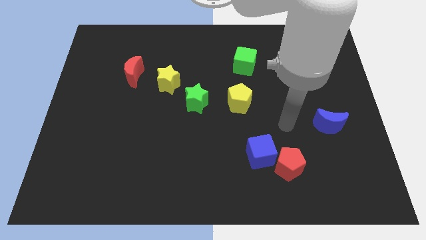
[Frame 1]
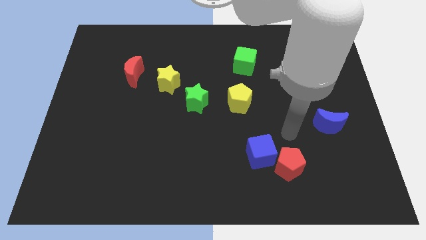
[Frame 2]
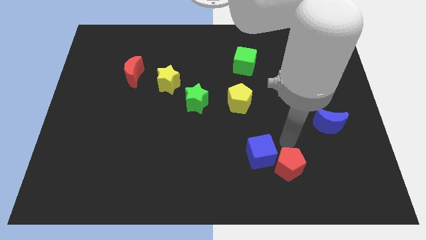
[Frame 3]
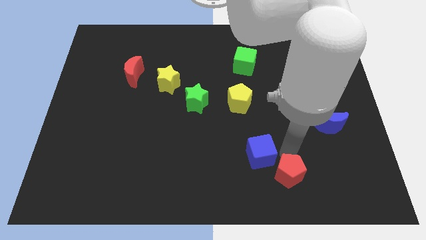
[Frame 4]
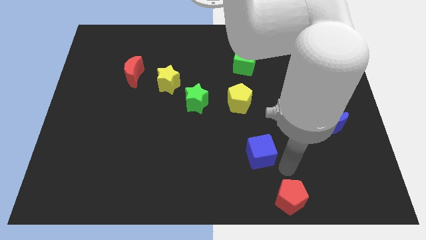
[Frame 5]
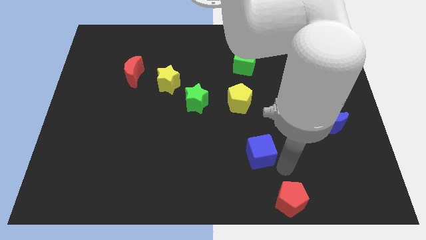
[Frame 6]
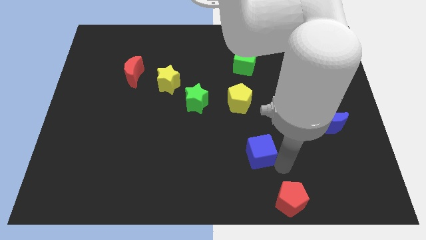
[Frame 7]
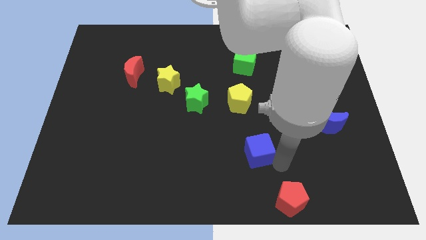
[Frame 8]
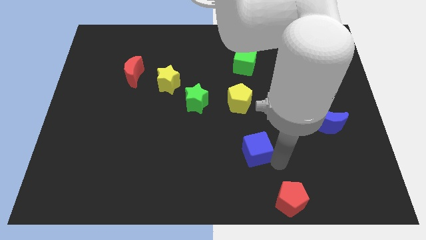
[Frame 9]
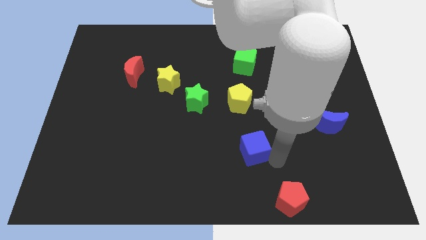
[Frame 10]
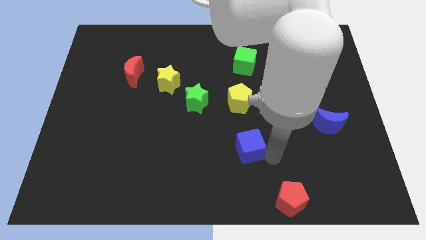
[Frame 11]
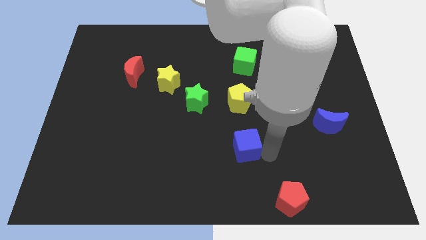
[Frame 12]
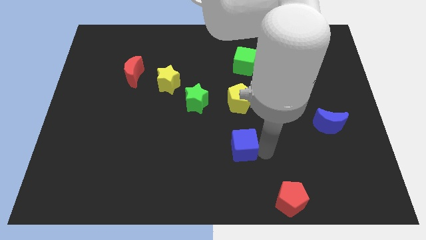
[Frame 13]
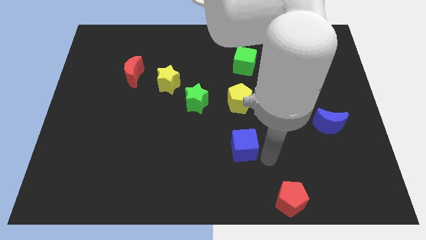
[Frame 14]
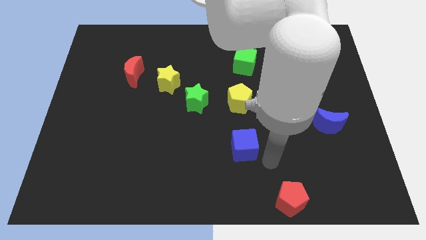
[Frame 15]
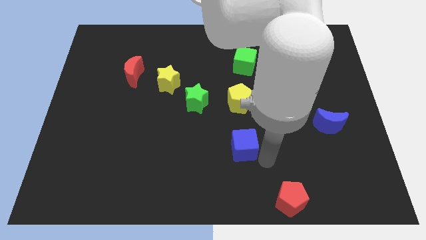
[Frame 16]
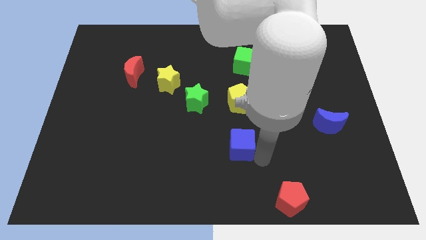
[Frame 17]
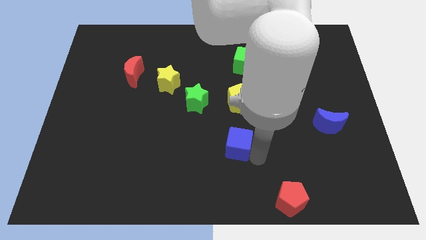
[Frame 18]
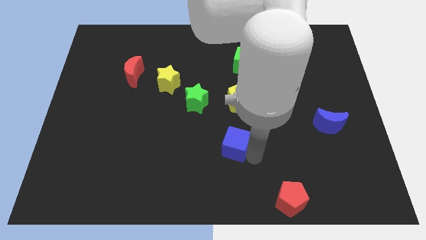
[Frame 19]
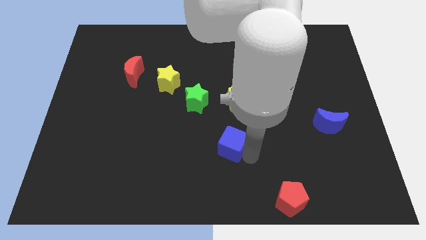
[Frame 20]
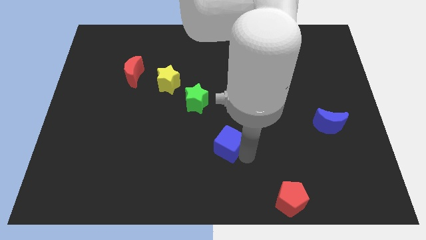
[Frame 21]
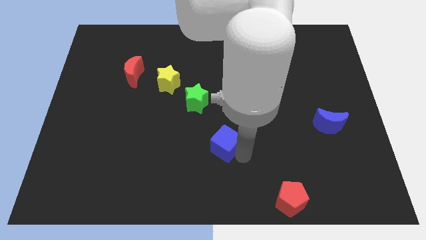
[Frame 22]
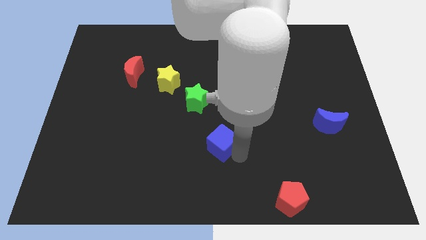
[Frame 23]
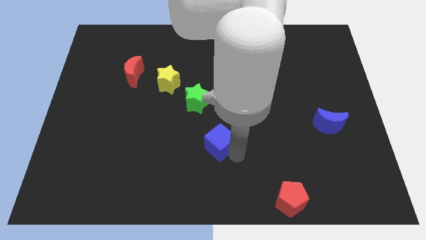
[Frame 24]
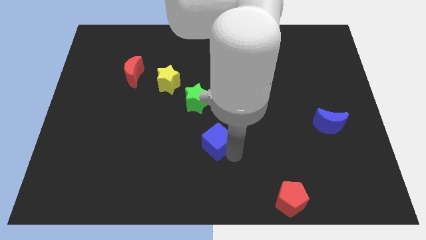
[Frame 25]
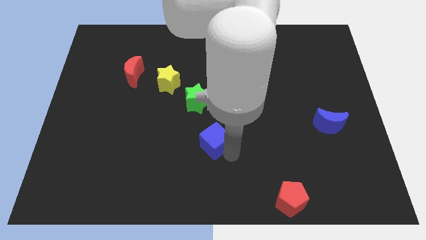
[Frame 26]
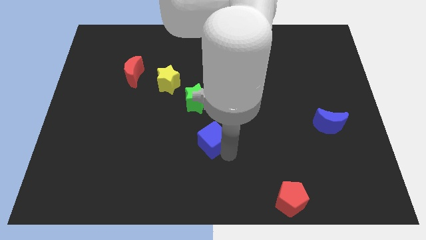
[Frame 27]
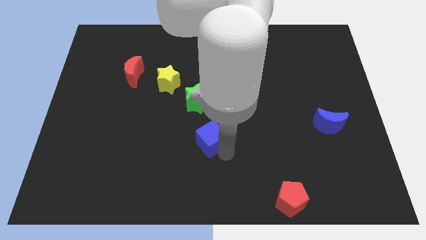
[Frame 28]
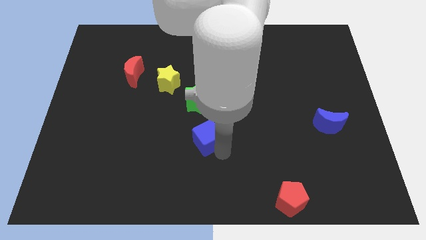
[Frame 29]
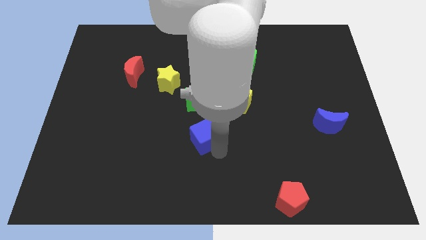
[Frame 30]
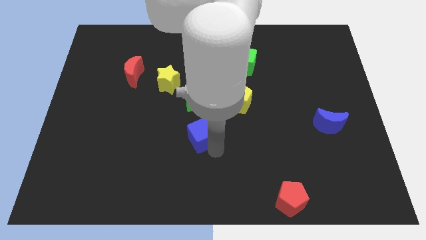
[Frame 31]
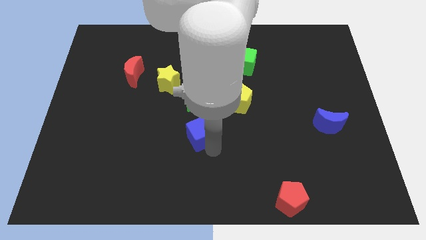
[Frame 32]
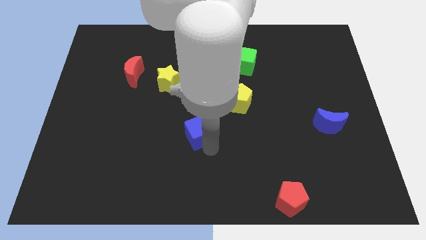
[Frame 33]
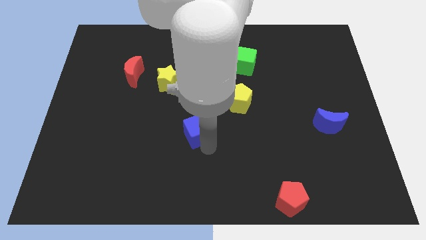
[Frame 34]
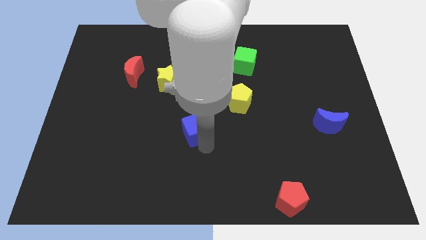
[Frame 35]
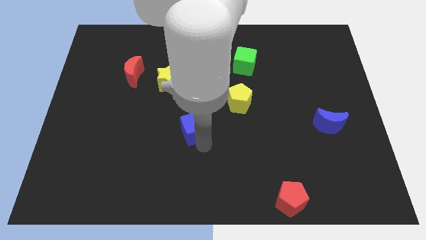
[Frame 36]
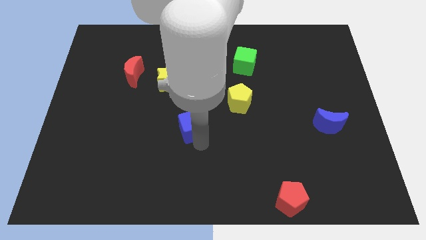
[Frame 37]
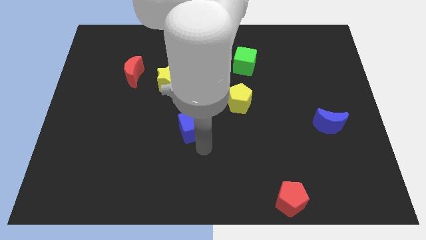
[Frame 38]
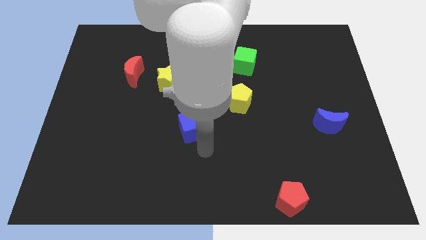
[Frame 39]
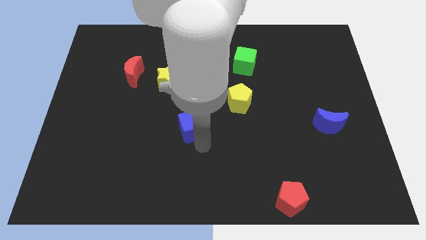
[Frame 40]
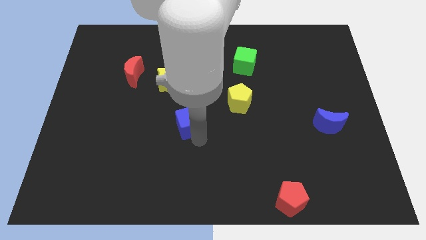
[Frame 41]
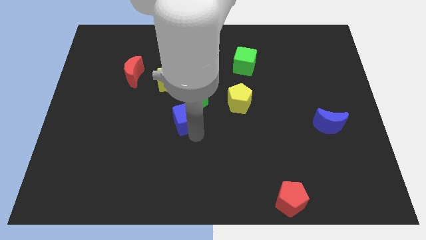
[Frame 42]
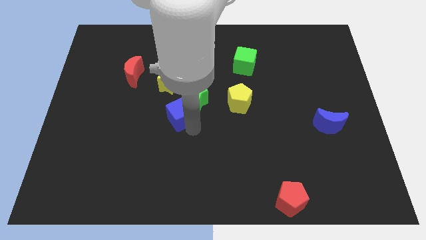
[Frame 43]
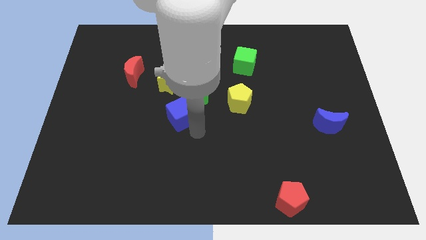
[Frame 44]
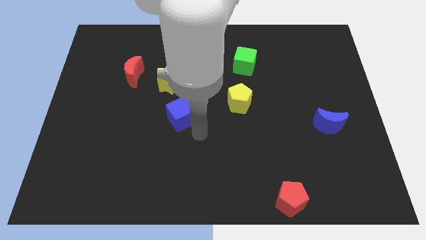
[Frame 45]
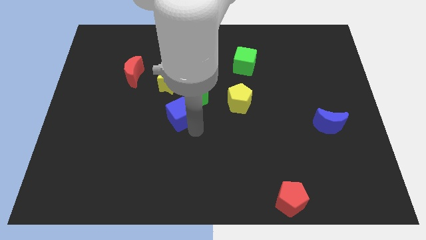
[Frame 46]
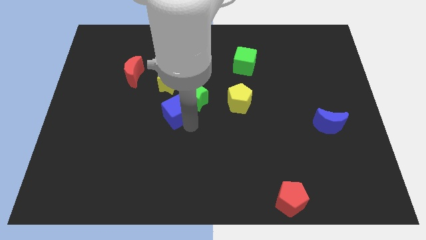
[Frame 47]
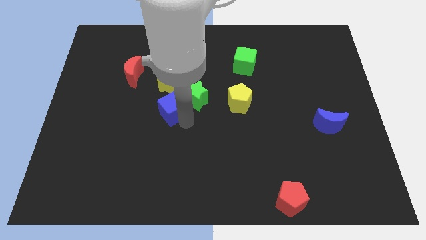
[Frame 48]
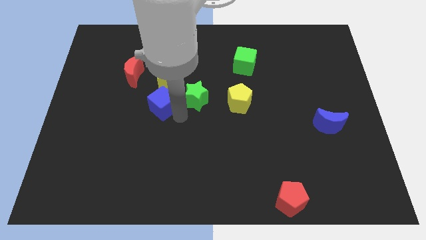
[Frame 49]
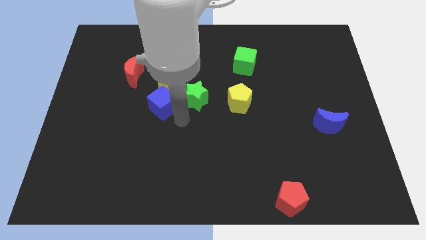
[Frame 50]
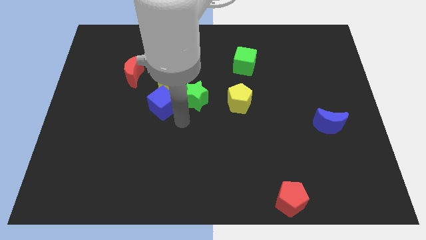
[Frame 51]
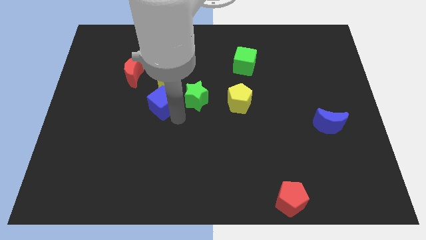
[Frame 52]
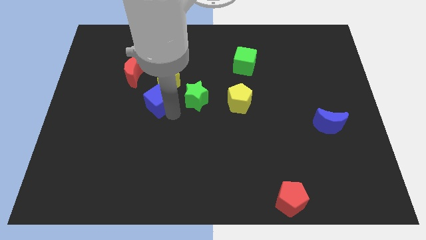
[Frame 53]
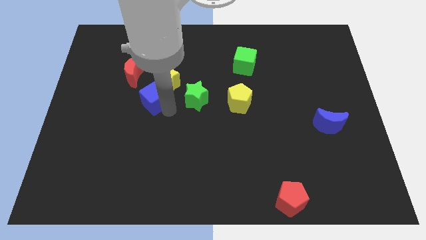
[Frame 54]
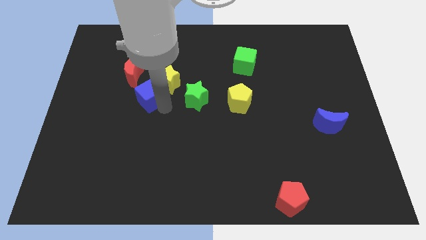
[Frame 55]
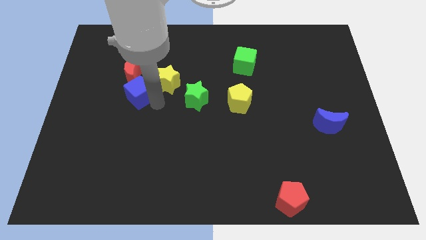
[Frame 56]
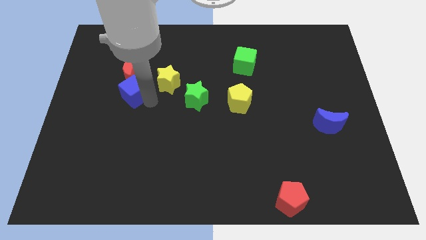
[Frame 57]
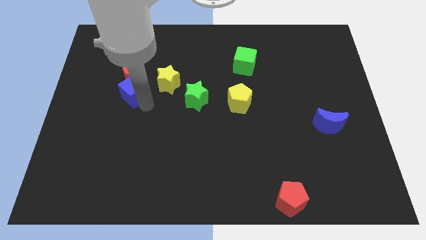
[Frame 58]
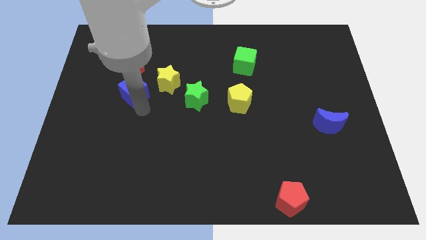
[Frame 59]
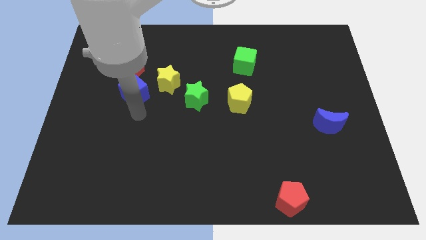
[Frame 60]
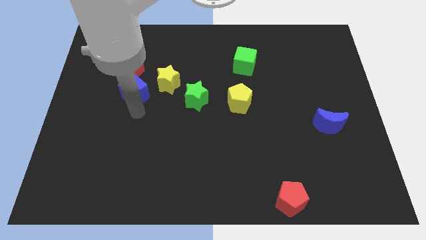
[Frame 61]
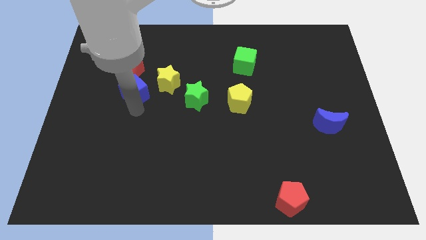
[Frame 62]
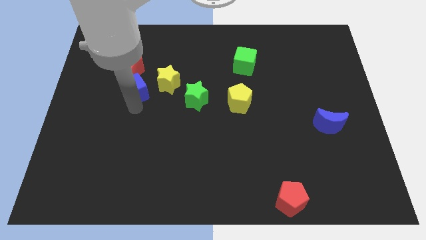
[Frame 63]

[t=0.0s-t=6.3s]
slide the blue cube close to the red moon

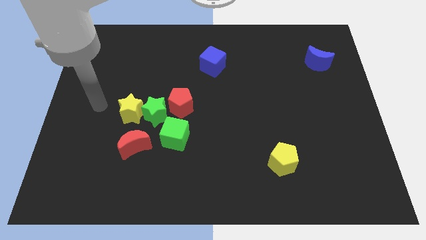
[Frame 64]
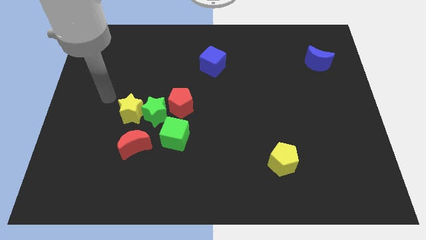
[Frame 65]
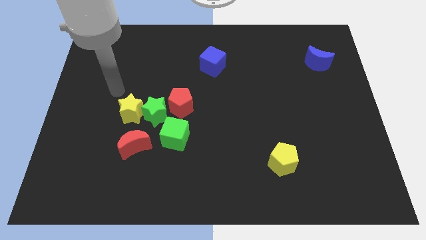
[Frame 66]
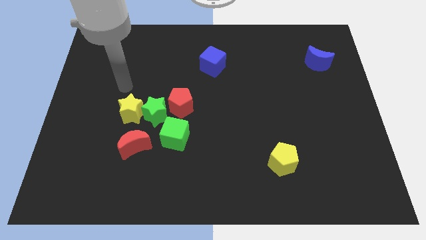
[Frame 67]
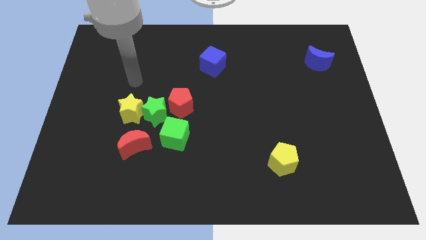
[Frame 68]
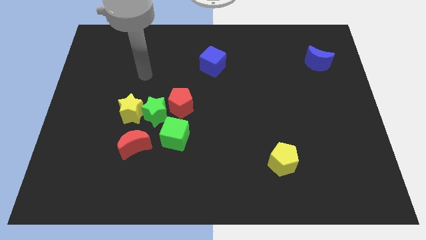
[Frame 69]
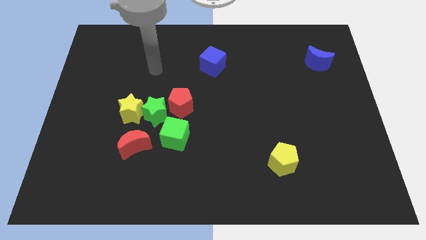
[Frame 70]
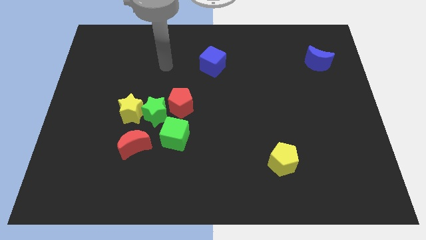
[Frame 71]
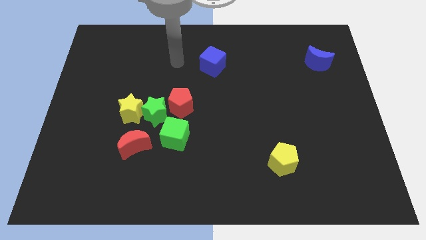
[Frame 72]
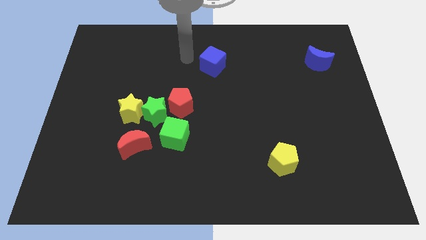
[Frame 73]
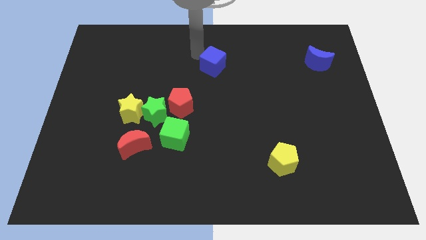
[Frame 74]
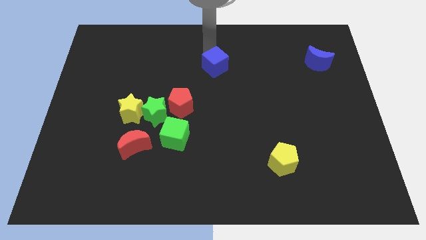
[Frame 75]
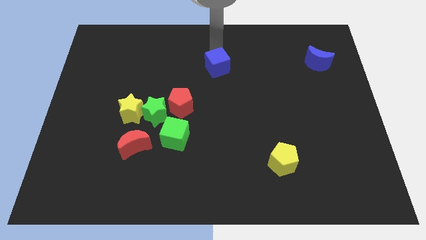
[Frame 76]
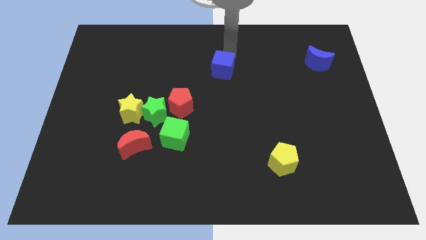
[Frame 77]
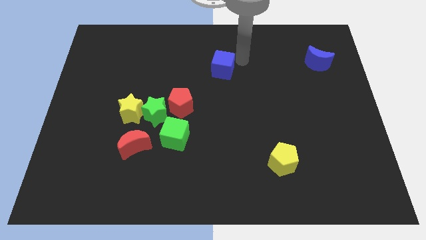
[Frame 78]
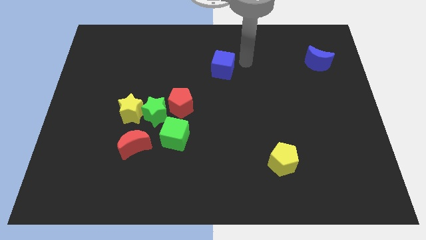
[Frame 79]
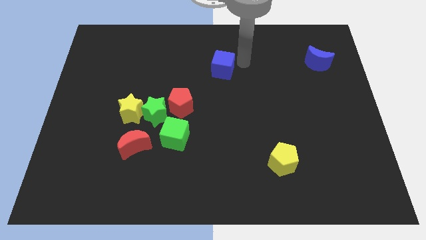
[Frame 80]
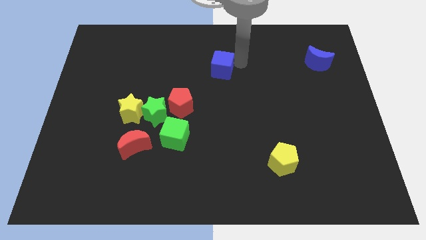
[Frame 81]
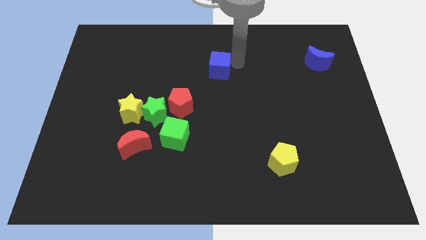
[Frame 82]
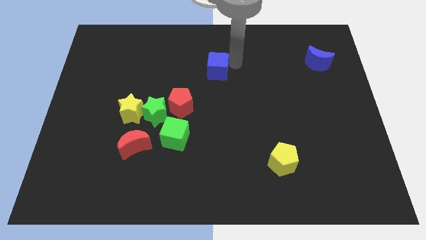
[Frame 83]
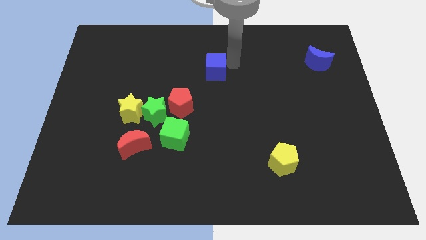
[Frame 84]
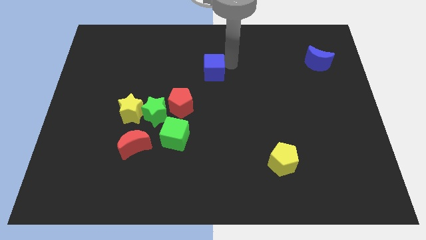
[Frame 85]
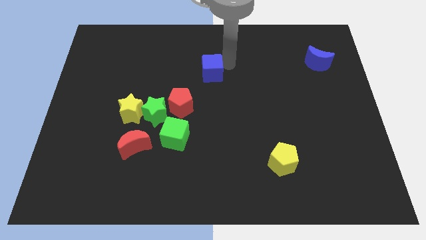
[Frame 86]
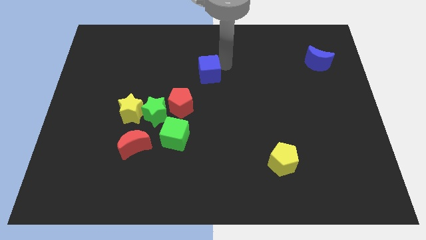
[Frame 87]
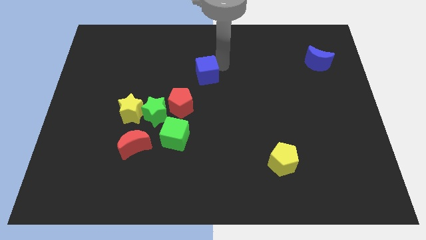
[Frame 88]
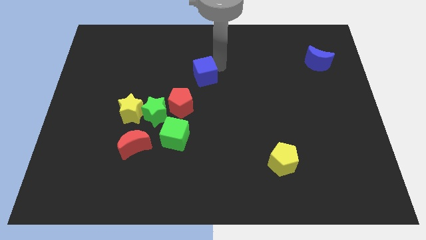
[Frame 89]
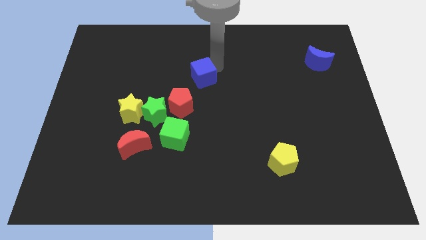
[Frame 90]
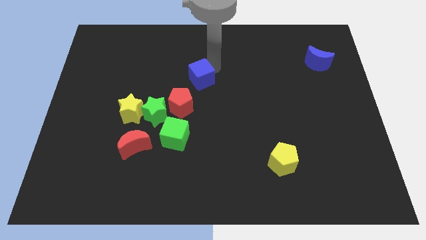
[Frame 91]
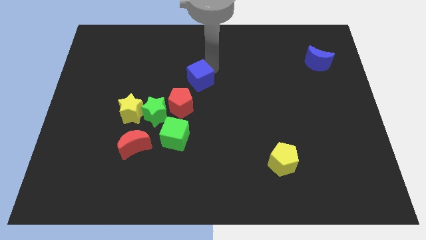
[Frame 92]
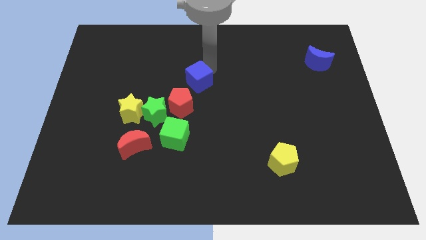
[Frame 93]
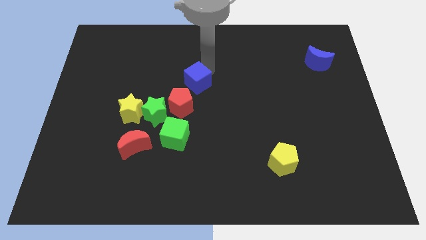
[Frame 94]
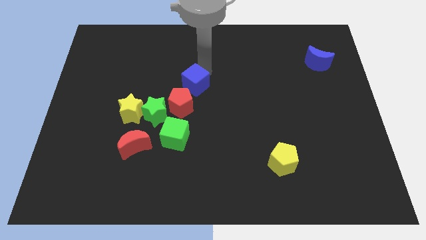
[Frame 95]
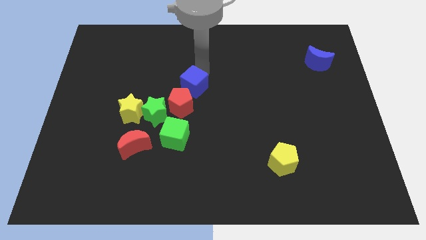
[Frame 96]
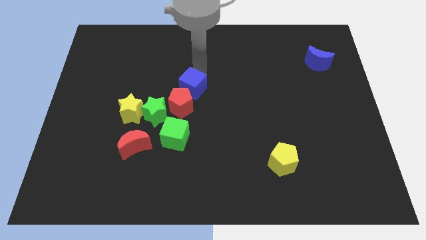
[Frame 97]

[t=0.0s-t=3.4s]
put the blue cube next to the red pentagon
